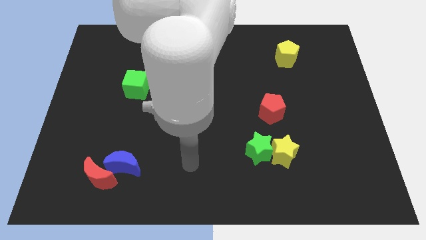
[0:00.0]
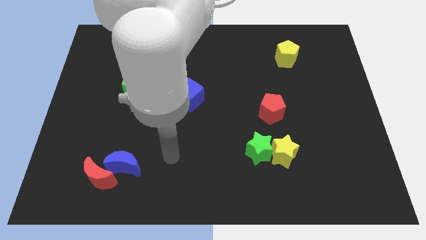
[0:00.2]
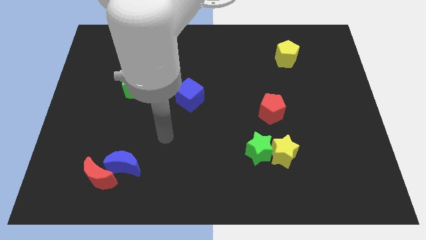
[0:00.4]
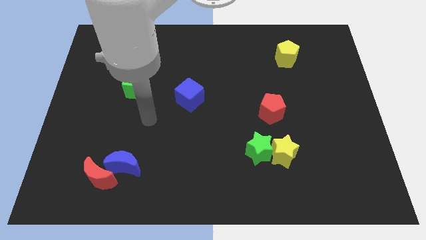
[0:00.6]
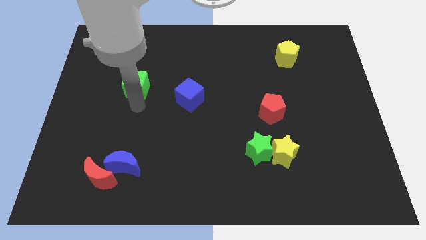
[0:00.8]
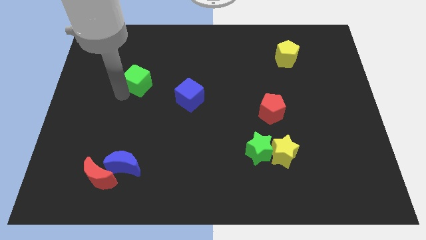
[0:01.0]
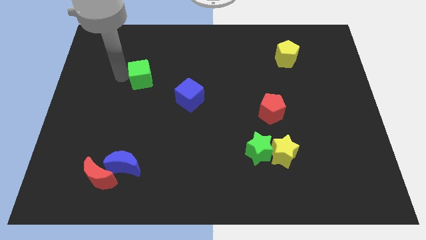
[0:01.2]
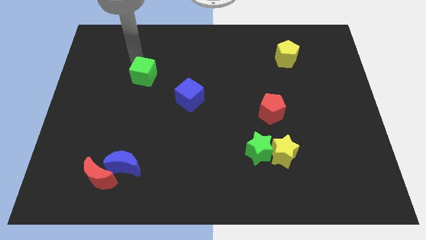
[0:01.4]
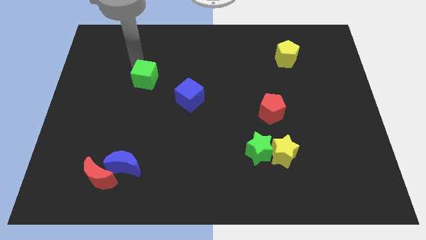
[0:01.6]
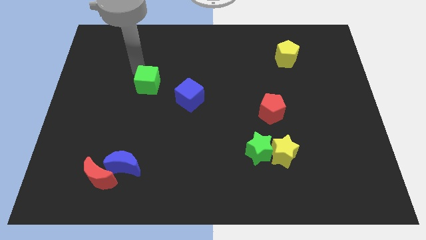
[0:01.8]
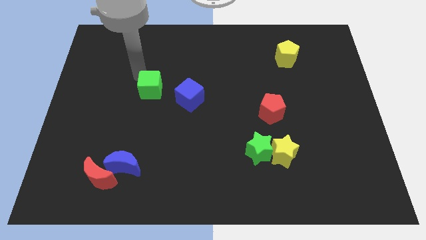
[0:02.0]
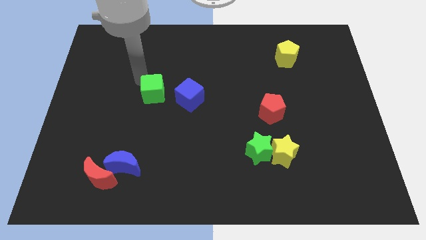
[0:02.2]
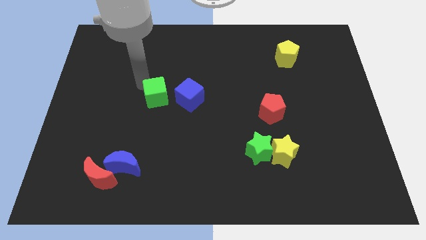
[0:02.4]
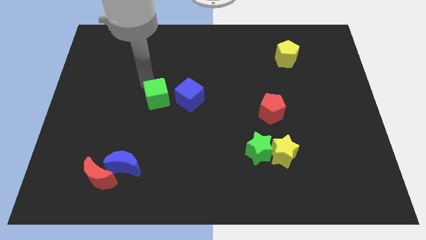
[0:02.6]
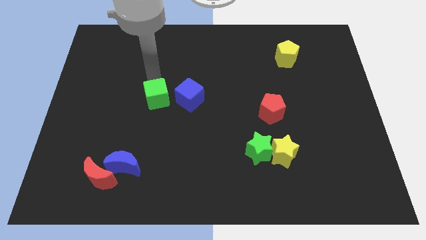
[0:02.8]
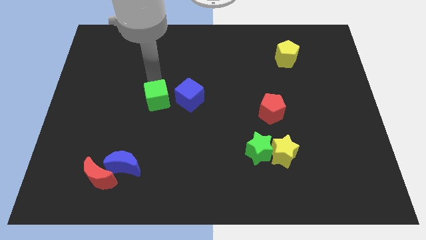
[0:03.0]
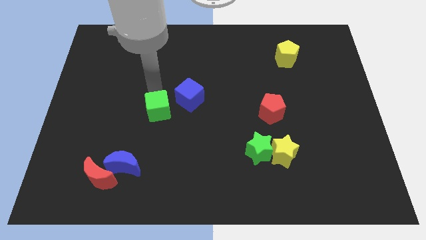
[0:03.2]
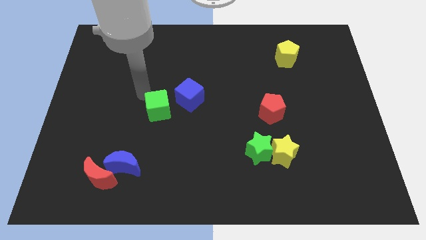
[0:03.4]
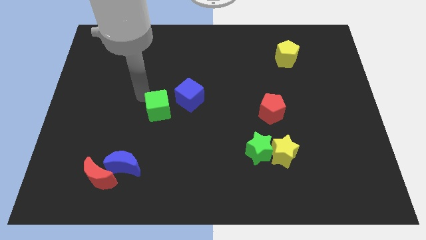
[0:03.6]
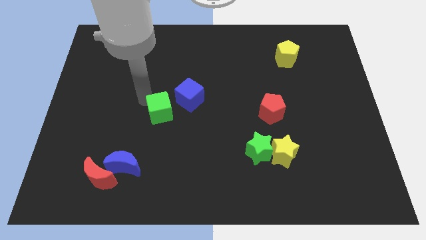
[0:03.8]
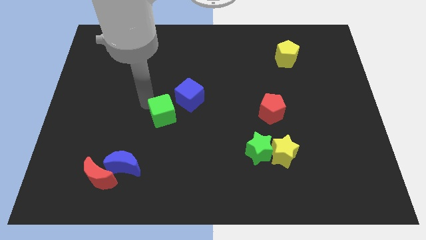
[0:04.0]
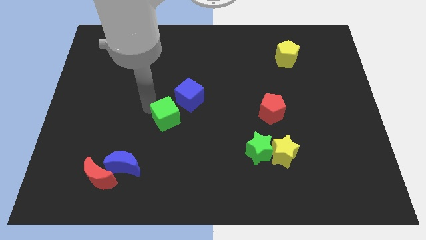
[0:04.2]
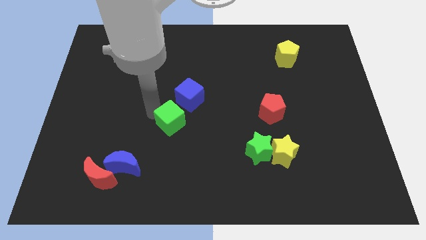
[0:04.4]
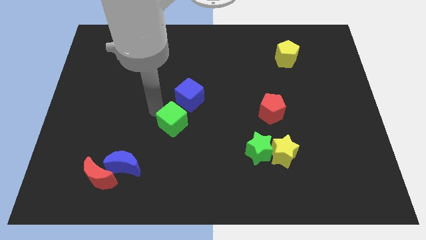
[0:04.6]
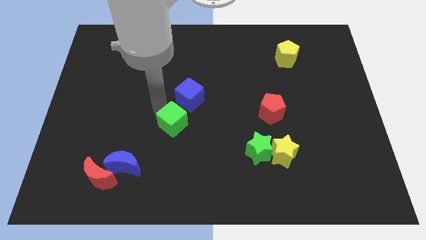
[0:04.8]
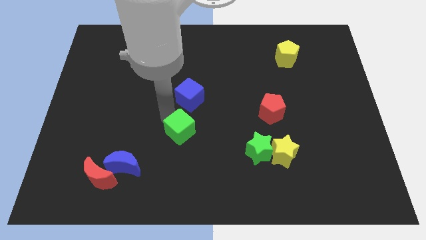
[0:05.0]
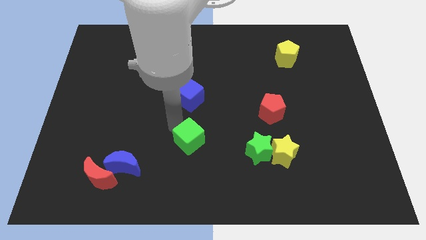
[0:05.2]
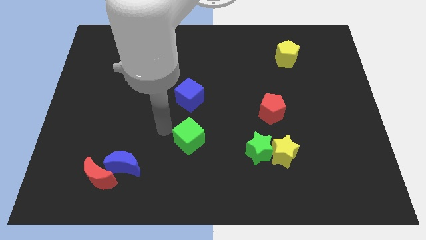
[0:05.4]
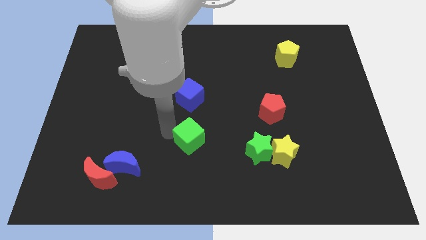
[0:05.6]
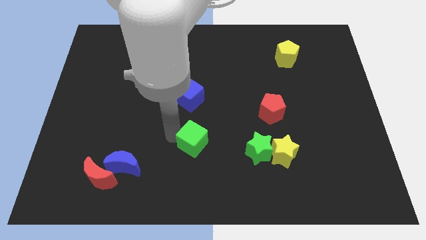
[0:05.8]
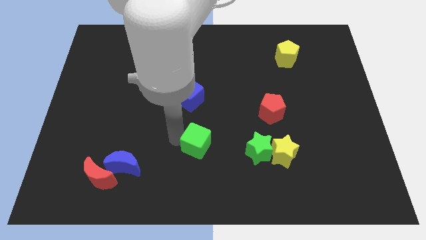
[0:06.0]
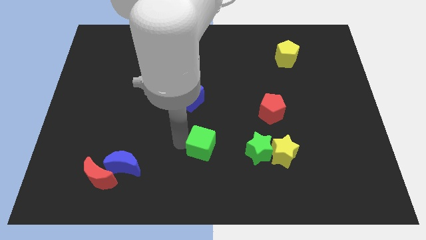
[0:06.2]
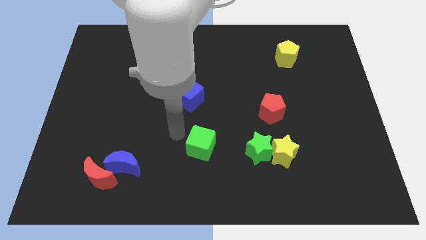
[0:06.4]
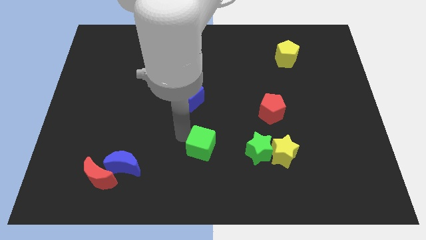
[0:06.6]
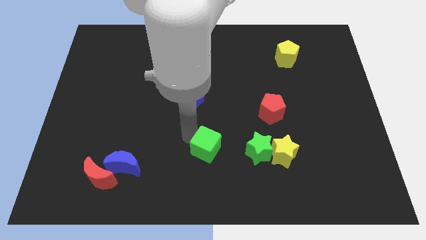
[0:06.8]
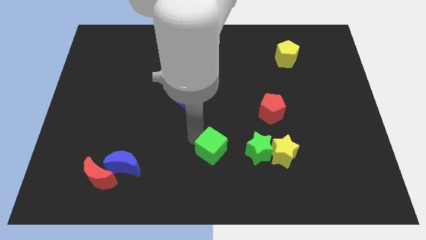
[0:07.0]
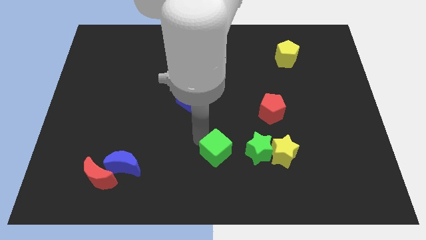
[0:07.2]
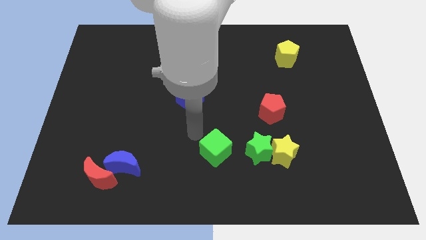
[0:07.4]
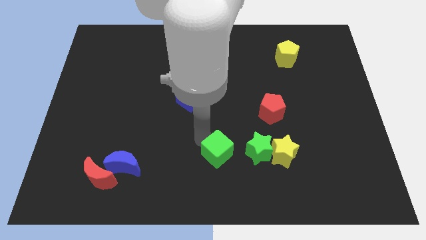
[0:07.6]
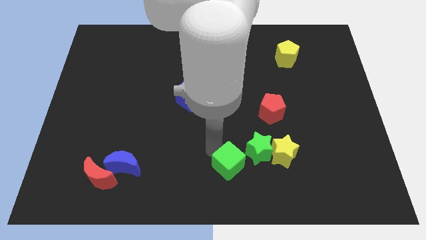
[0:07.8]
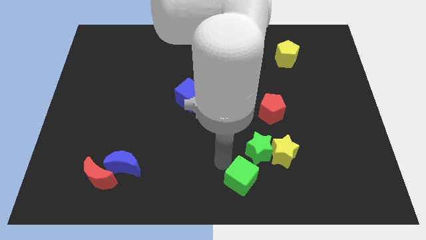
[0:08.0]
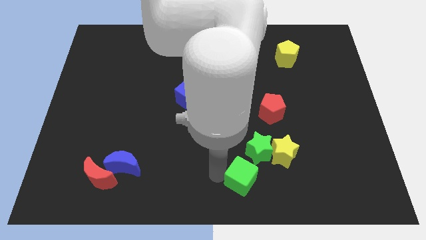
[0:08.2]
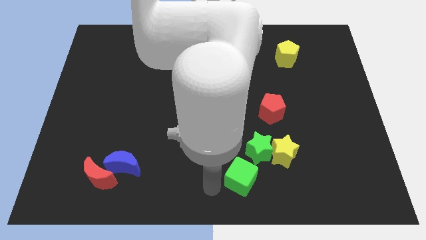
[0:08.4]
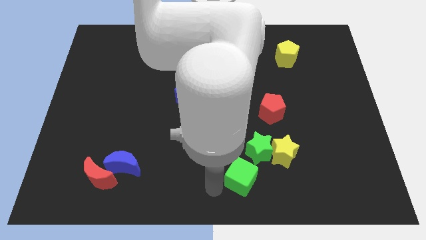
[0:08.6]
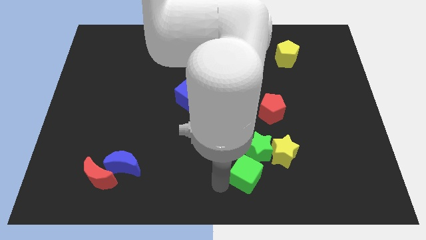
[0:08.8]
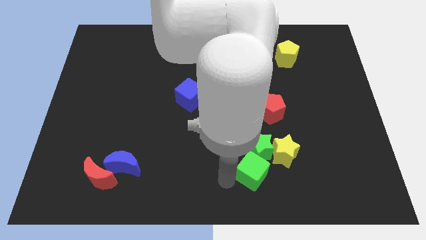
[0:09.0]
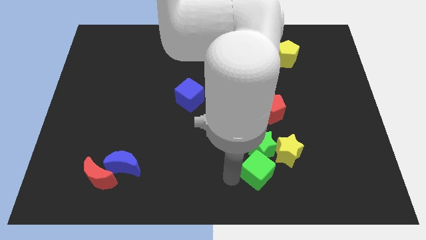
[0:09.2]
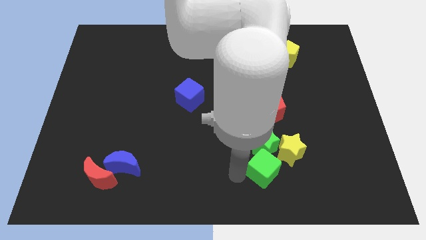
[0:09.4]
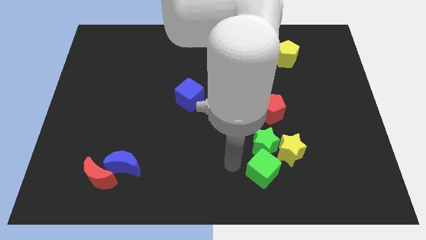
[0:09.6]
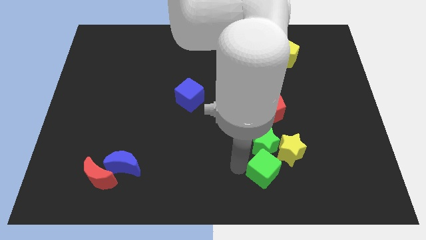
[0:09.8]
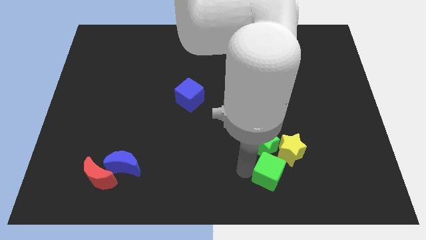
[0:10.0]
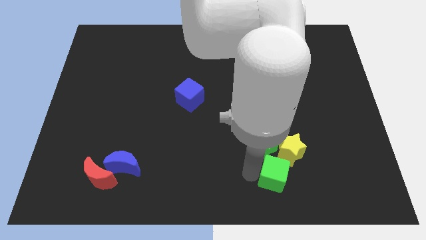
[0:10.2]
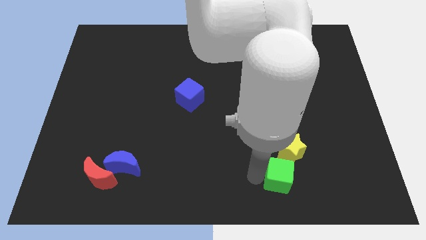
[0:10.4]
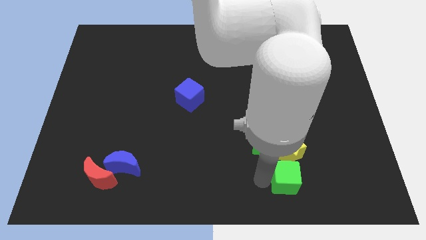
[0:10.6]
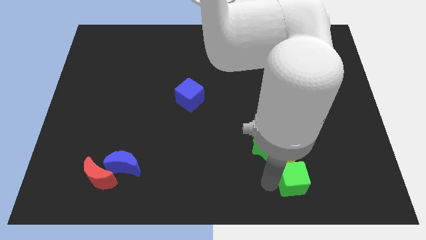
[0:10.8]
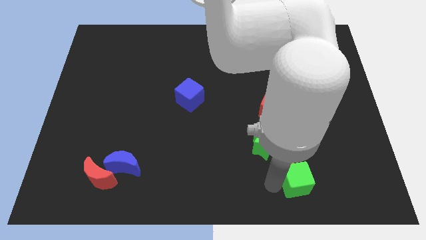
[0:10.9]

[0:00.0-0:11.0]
put the green cube to the bottom right of the yellow star

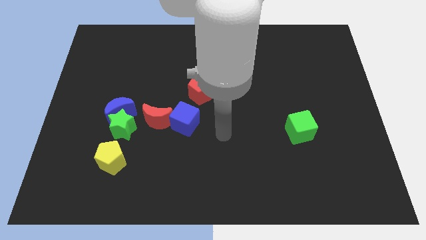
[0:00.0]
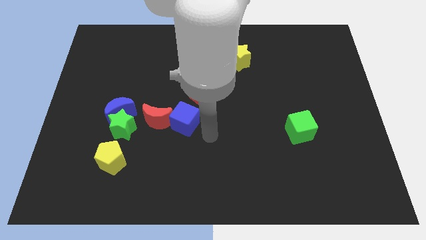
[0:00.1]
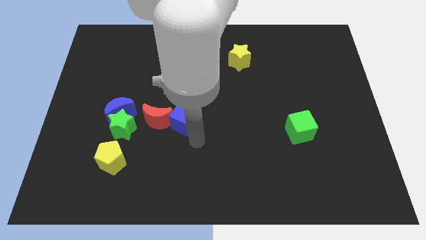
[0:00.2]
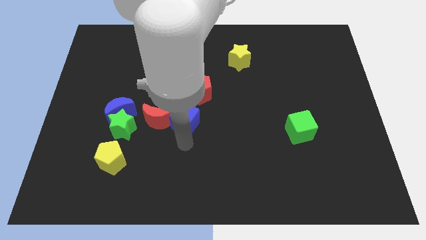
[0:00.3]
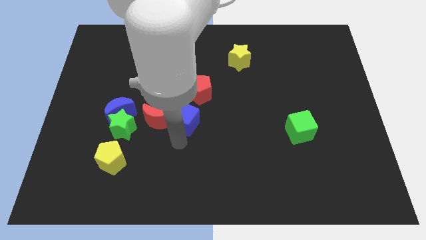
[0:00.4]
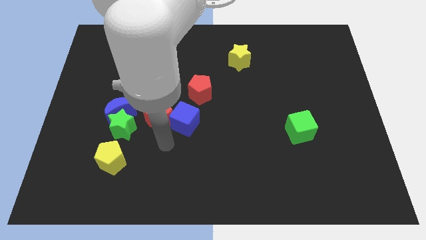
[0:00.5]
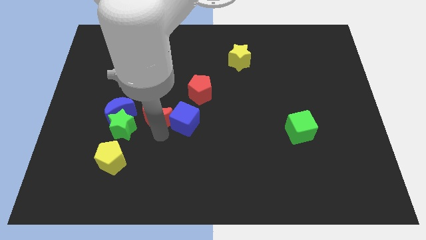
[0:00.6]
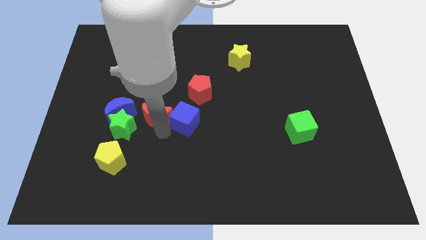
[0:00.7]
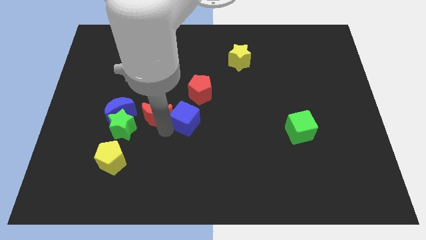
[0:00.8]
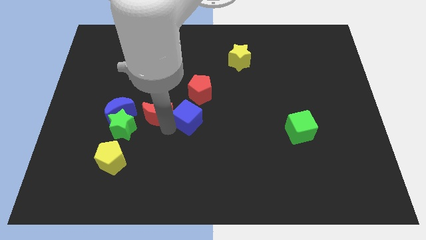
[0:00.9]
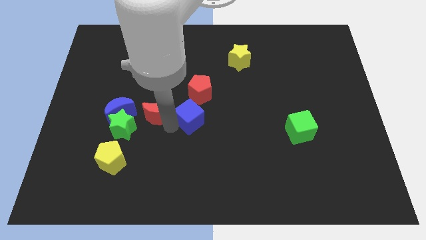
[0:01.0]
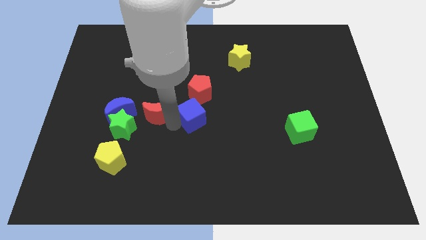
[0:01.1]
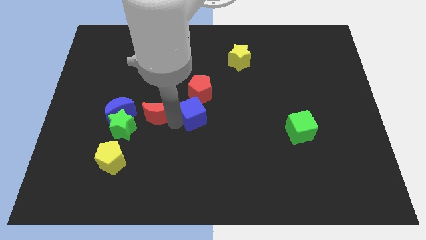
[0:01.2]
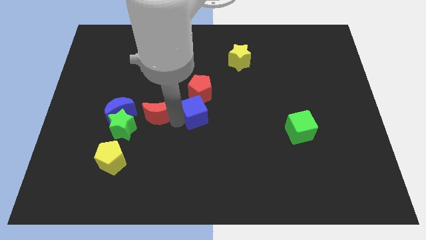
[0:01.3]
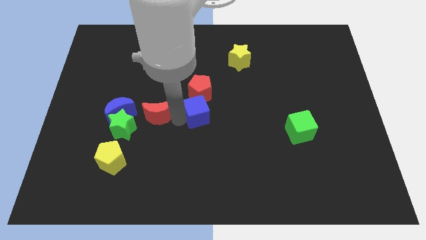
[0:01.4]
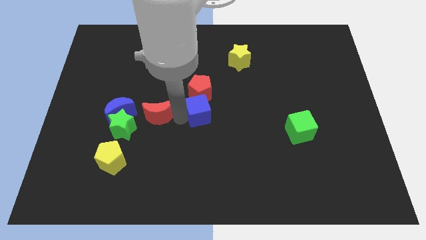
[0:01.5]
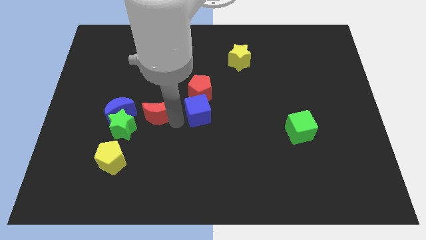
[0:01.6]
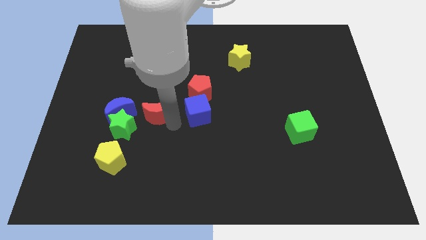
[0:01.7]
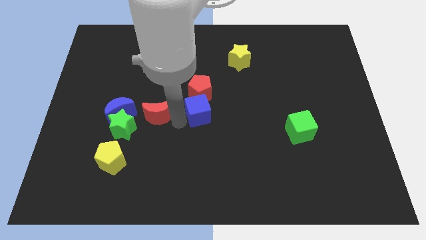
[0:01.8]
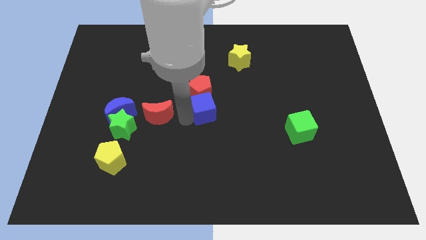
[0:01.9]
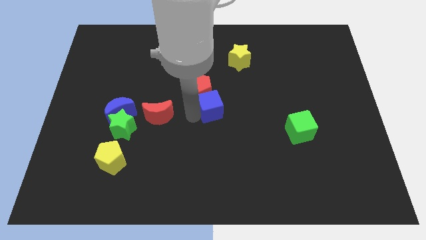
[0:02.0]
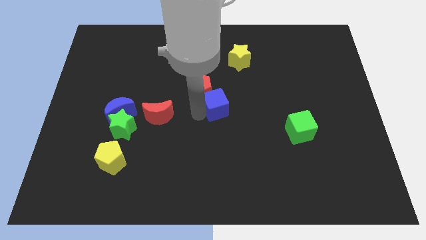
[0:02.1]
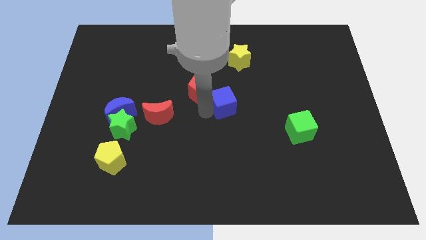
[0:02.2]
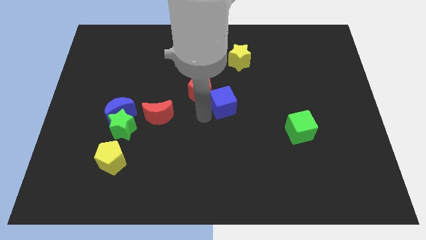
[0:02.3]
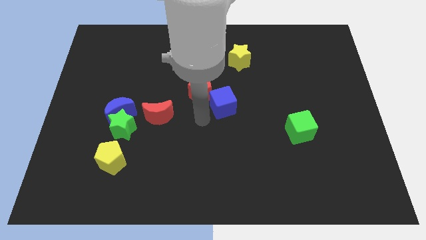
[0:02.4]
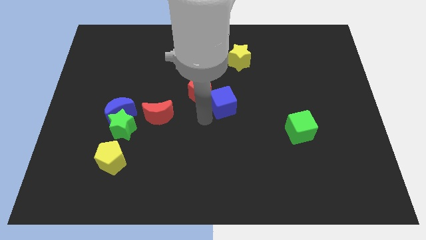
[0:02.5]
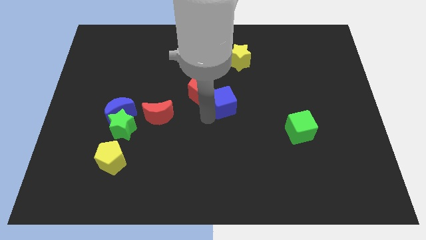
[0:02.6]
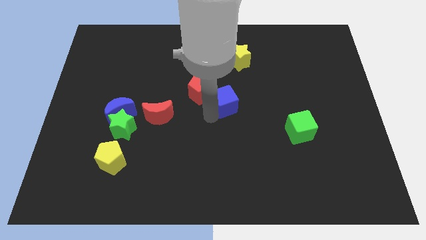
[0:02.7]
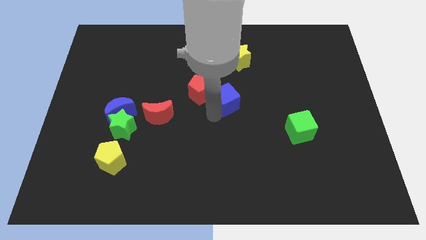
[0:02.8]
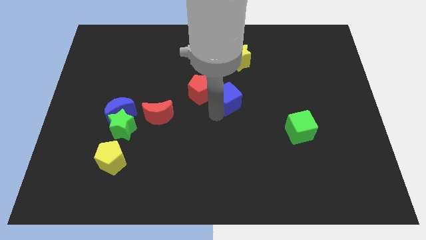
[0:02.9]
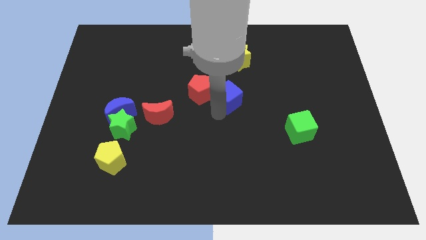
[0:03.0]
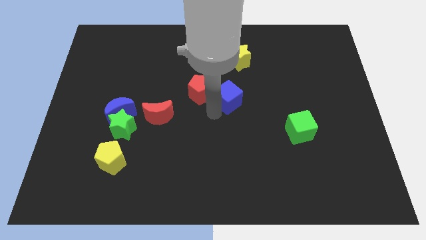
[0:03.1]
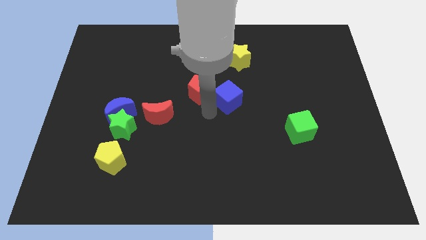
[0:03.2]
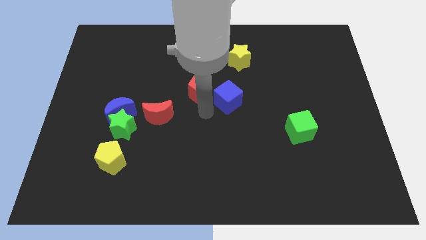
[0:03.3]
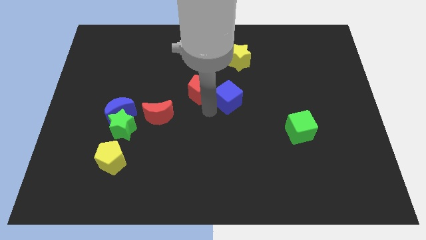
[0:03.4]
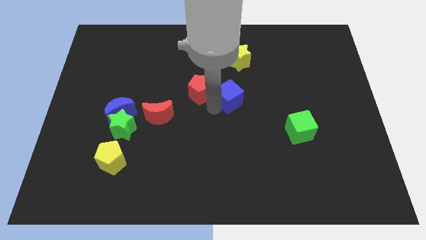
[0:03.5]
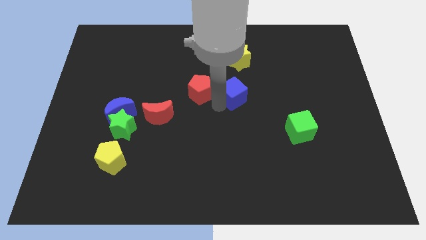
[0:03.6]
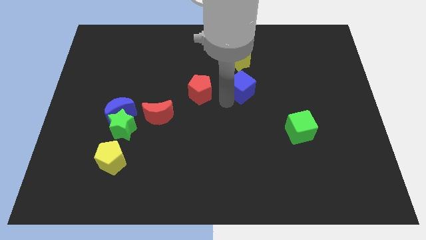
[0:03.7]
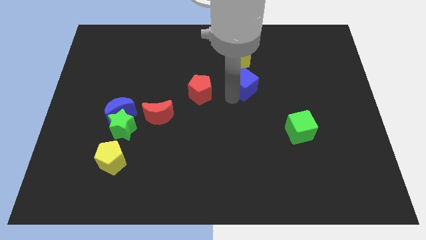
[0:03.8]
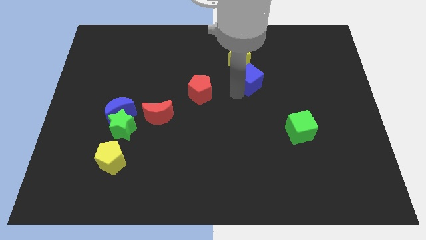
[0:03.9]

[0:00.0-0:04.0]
push the blue cube to the bottom right of the yellow star
